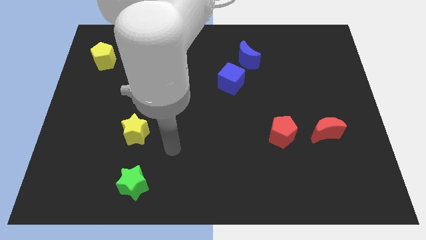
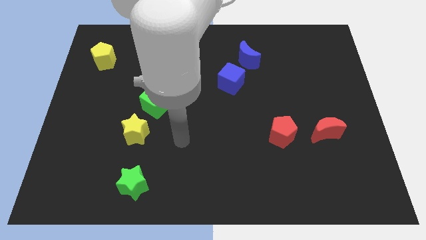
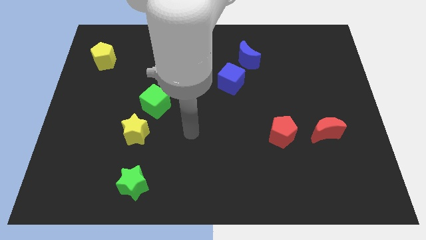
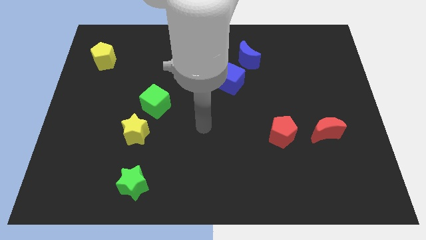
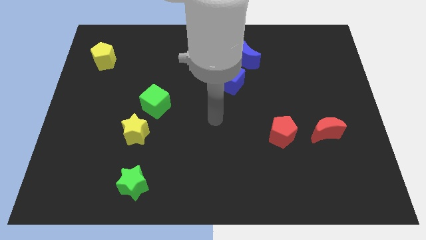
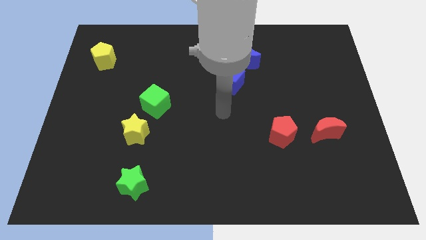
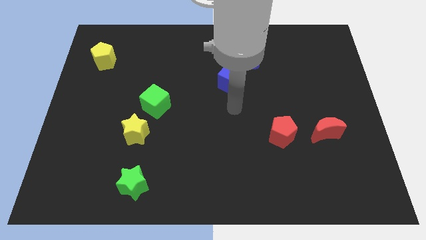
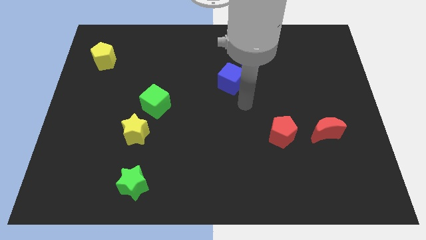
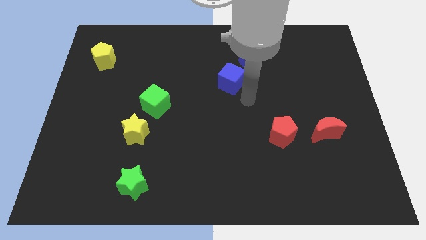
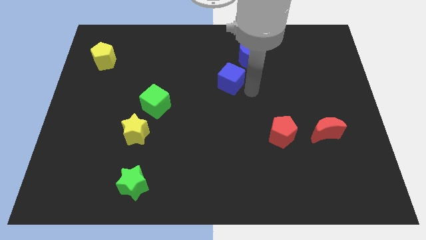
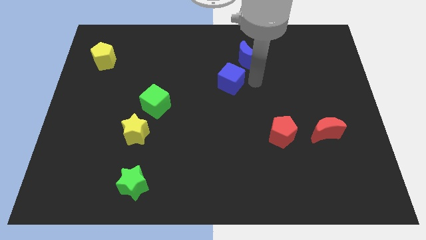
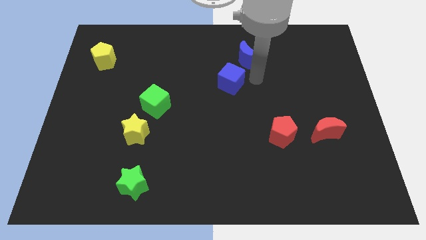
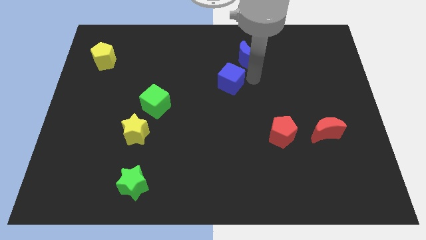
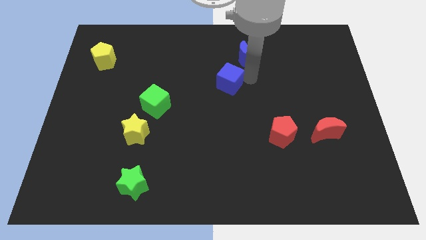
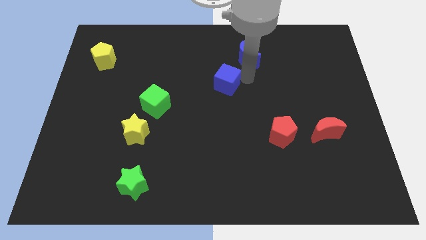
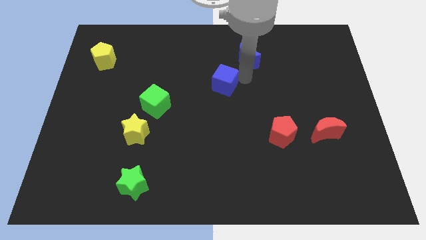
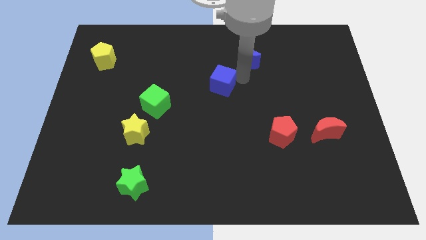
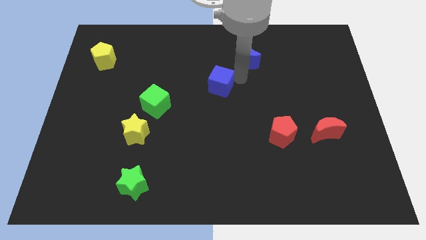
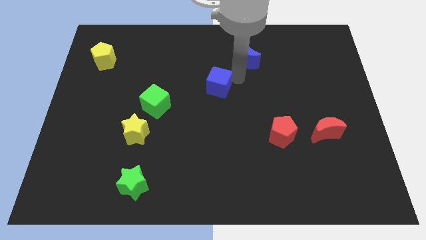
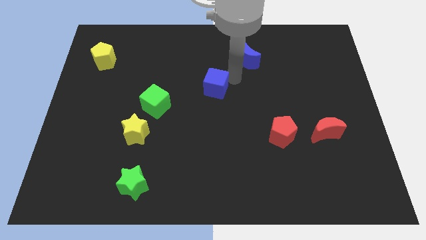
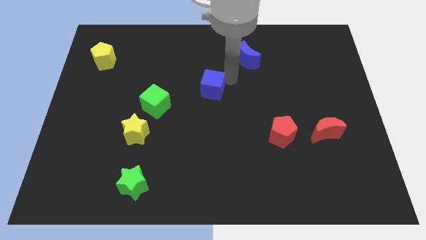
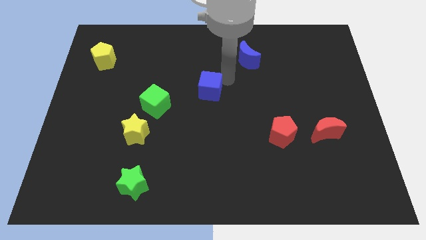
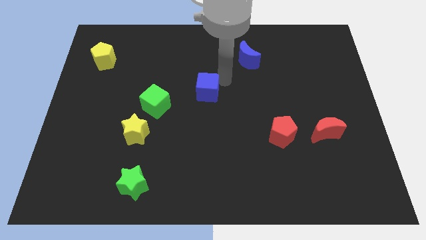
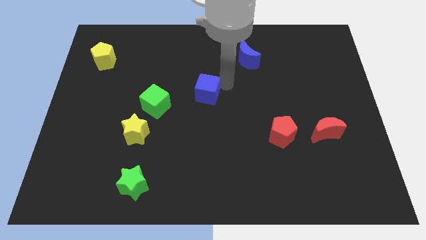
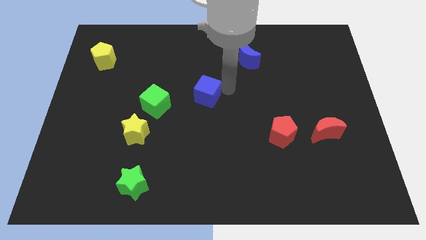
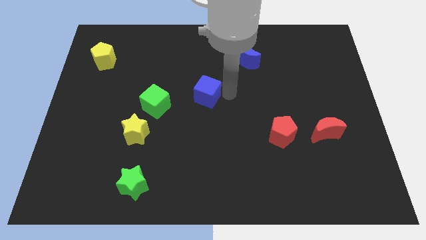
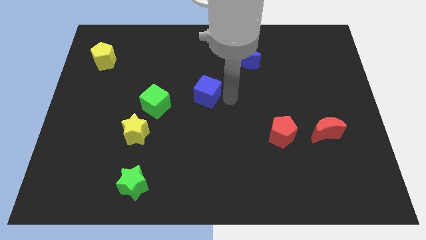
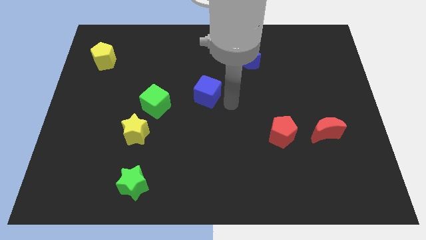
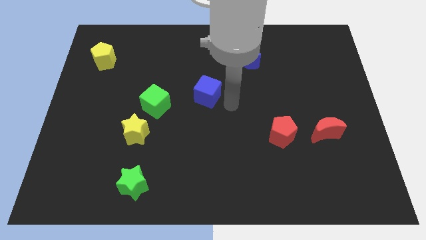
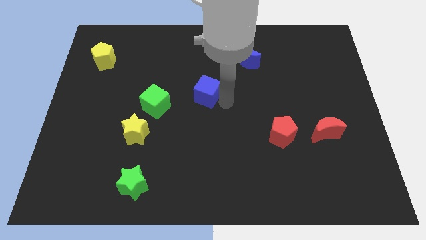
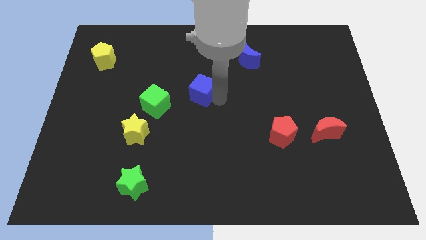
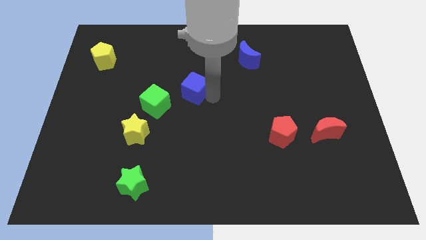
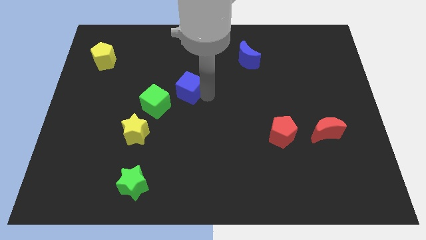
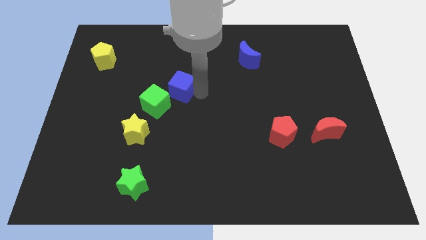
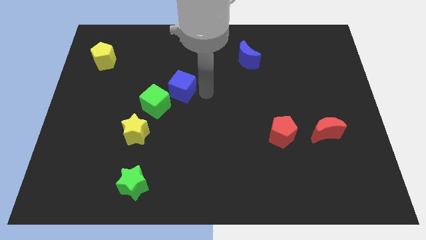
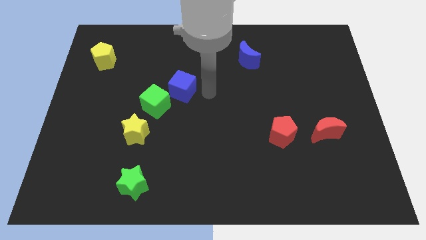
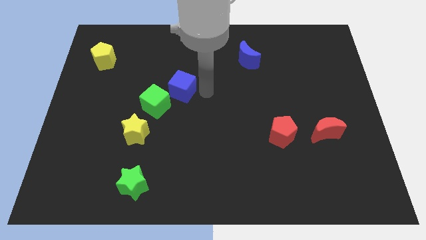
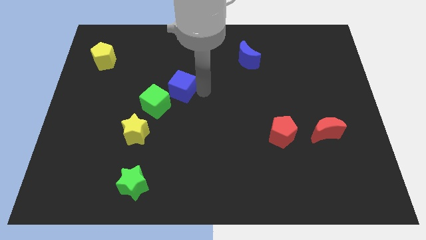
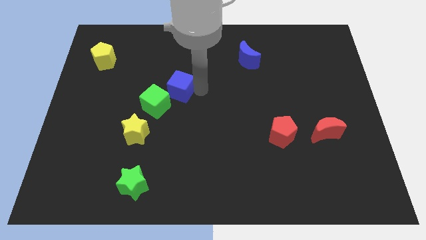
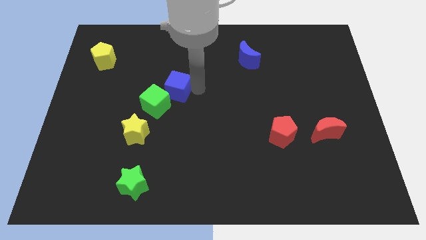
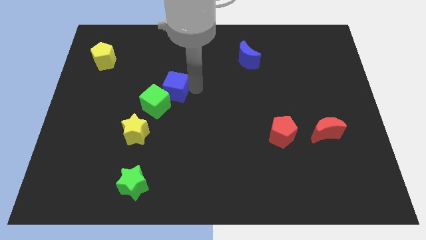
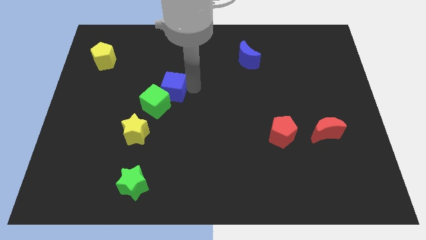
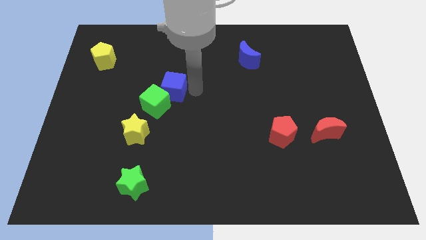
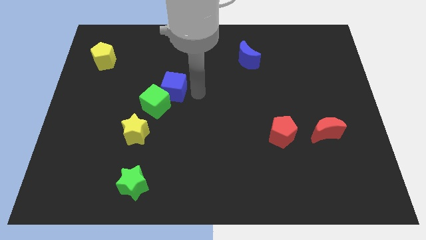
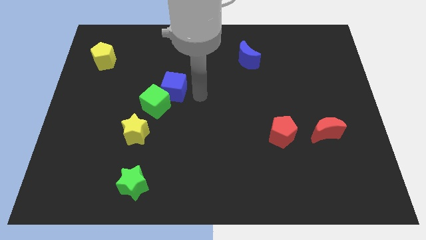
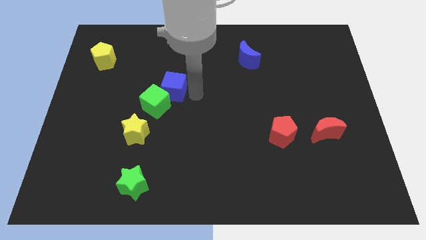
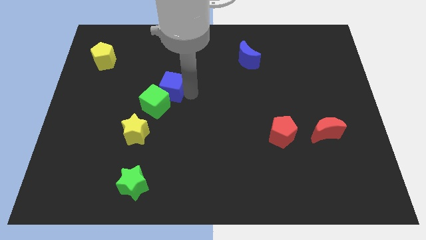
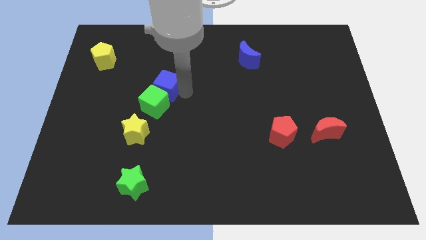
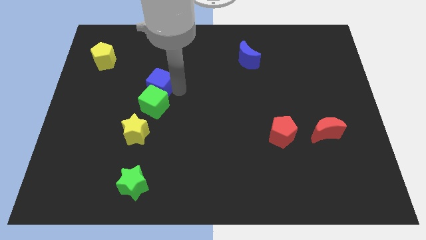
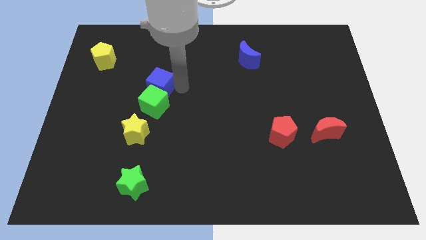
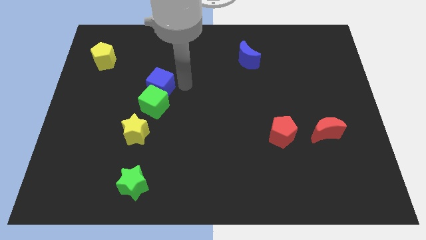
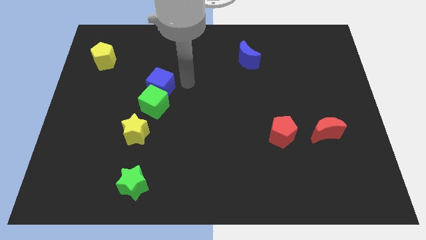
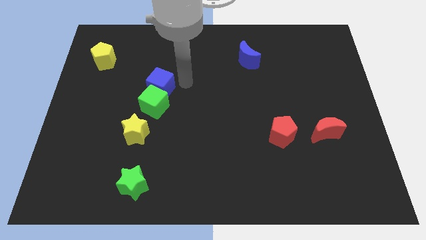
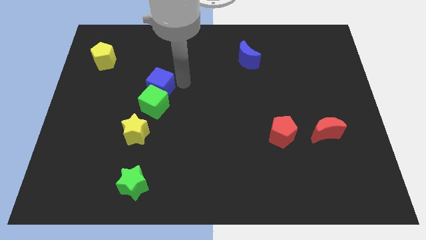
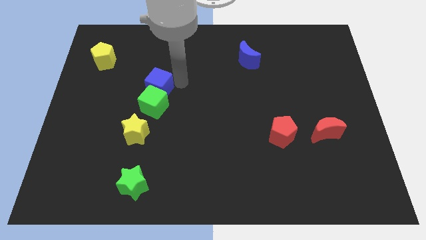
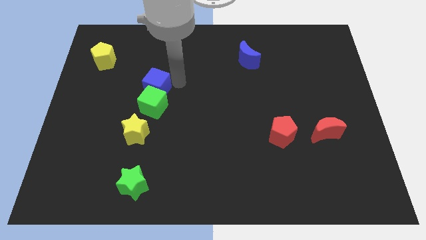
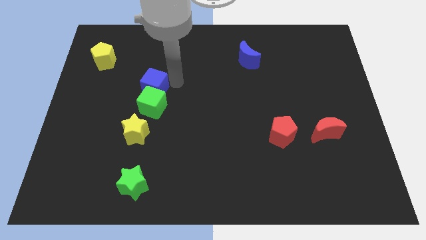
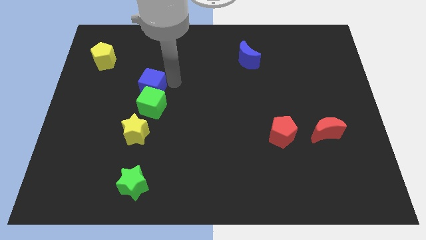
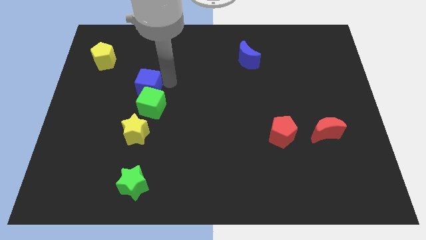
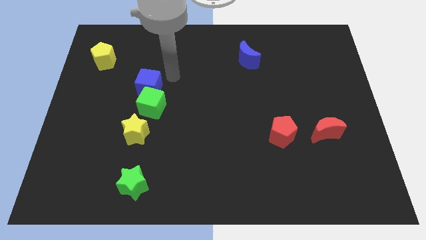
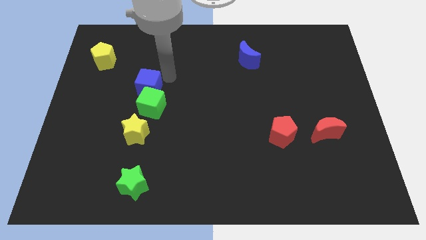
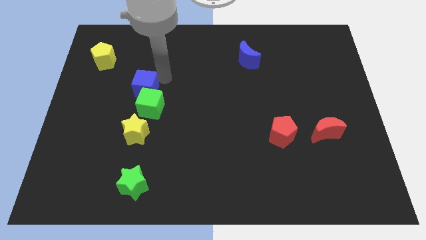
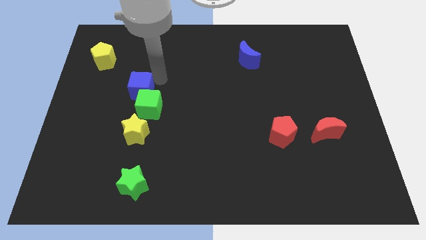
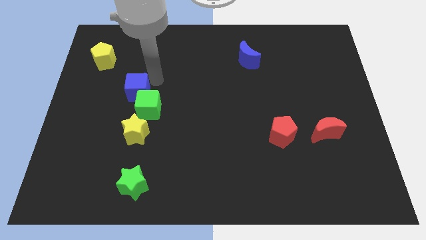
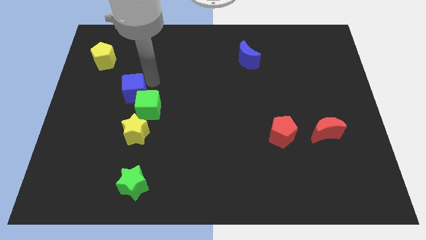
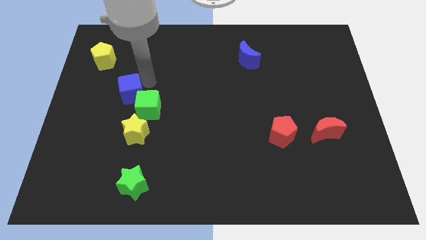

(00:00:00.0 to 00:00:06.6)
slide the blue cube to the left of the green cube

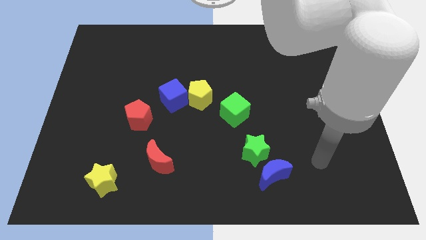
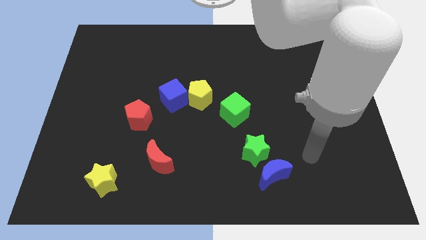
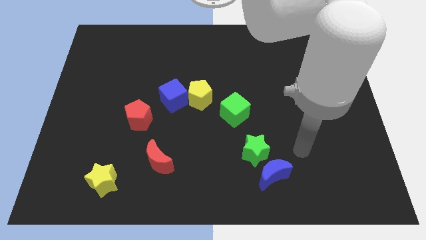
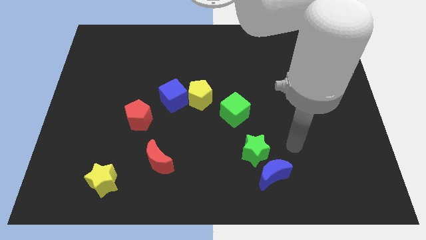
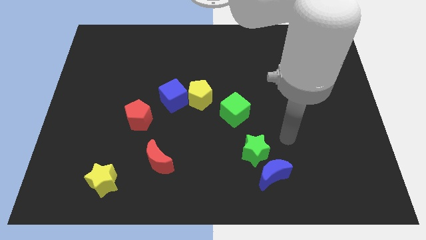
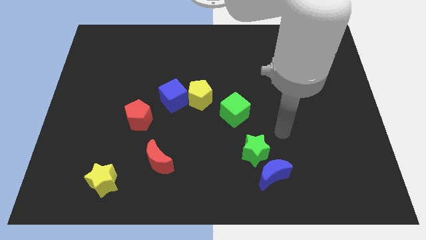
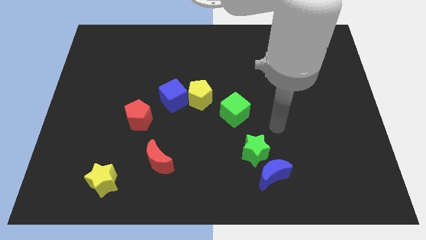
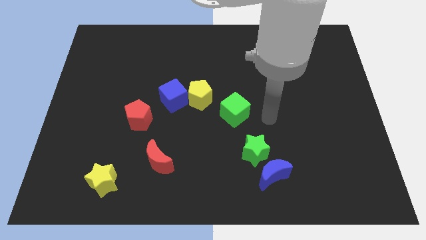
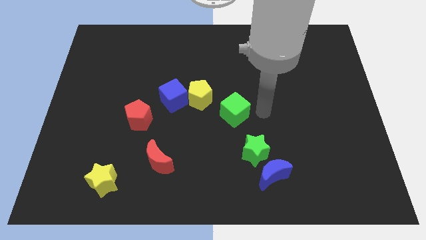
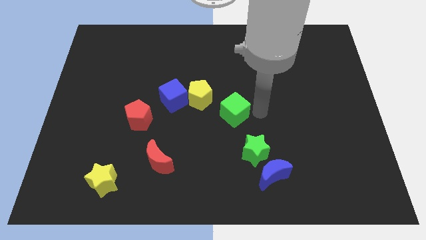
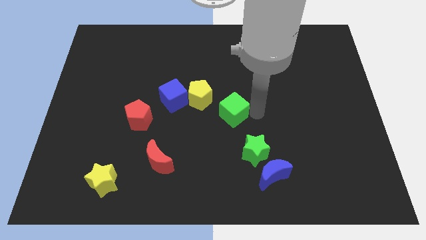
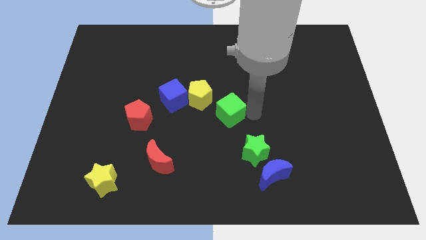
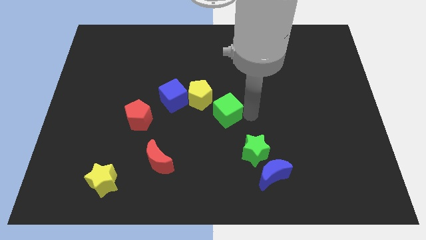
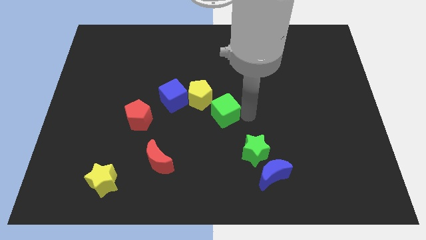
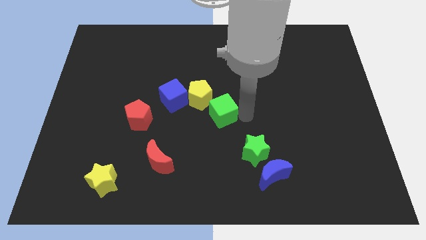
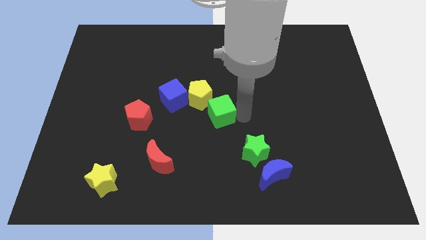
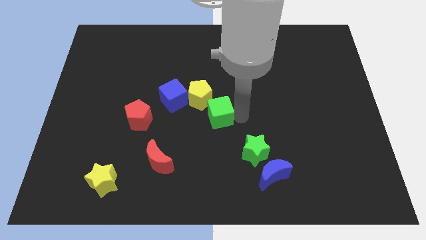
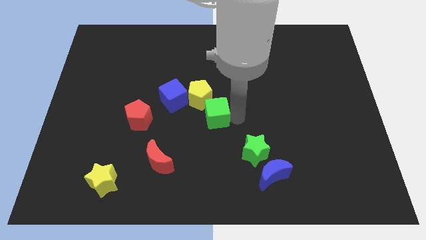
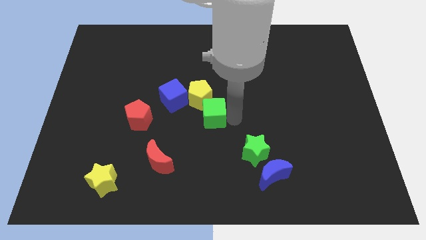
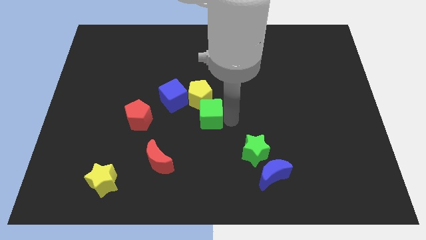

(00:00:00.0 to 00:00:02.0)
slide the green cube right of the red pentagon
